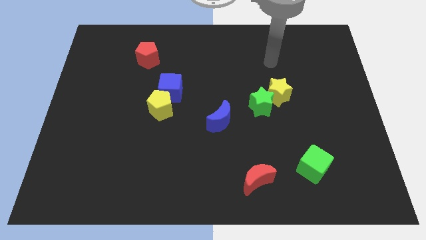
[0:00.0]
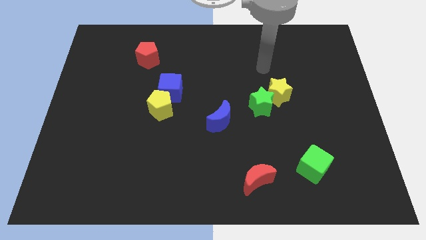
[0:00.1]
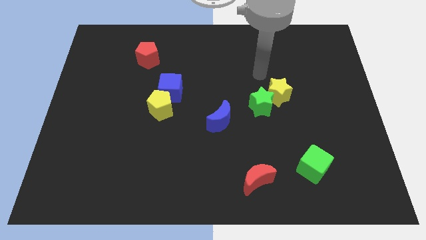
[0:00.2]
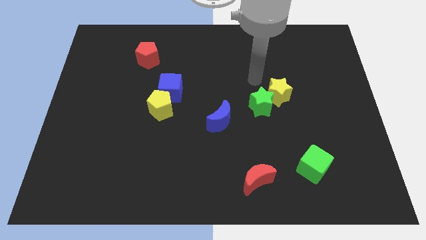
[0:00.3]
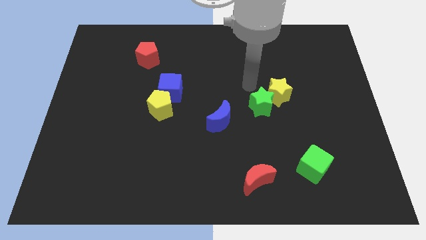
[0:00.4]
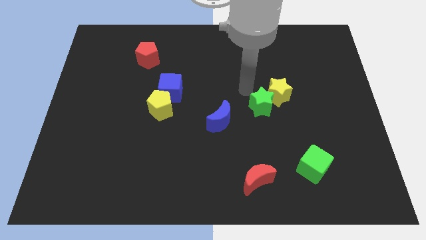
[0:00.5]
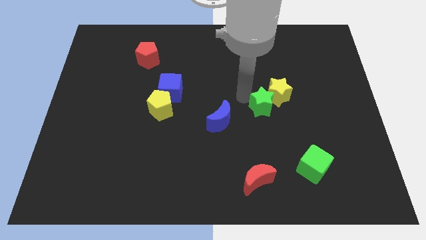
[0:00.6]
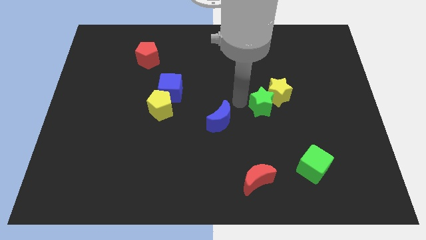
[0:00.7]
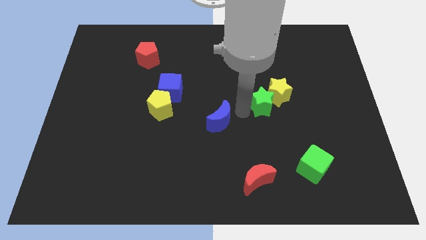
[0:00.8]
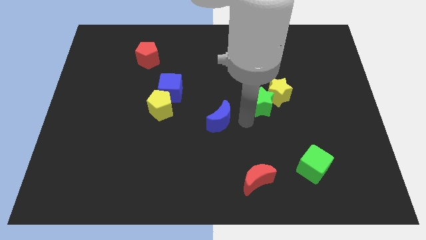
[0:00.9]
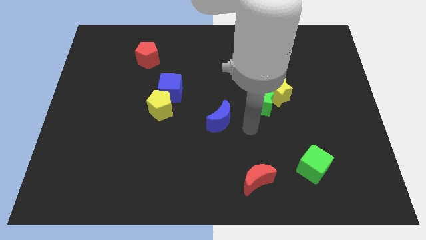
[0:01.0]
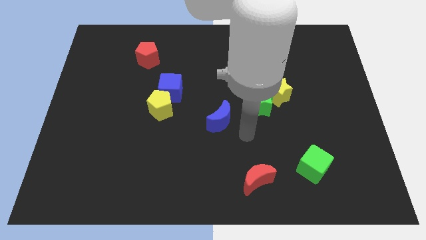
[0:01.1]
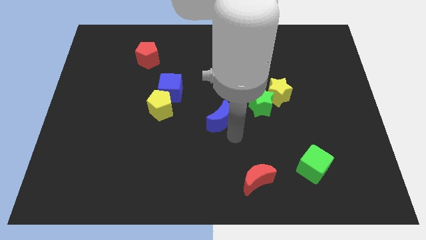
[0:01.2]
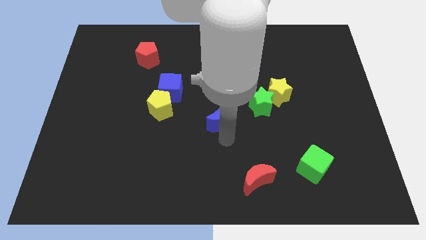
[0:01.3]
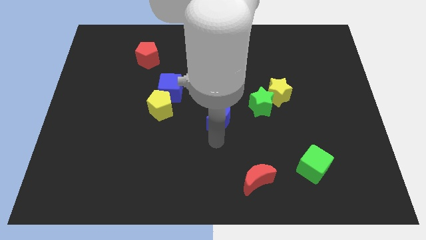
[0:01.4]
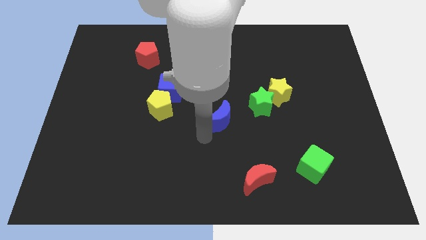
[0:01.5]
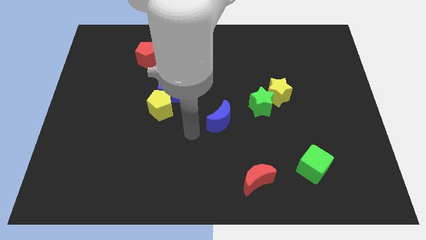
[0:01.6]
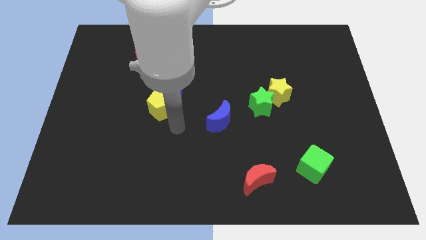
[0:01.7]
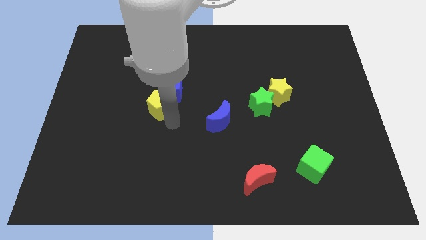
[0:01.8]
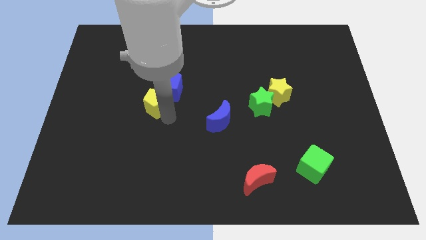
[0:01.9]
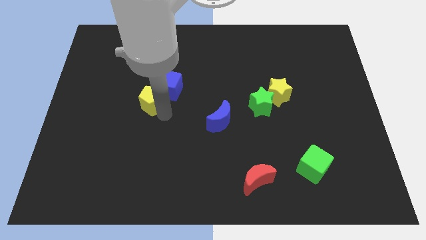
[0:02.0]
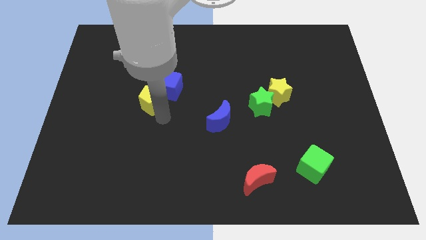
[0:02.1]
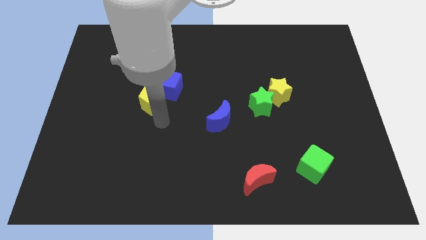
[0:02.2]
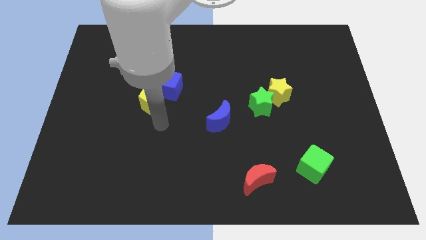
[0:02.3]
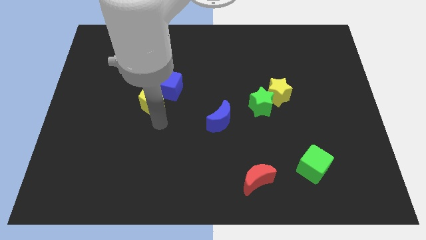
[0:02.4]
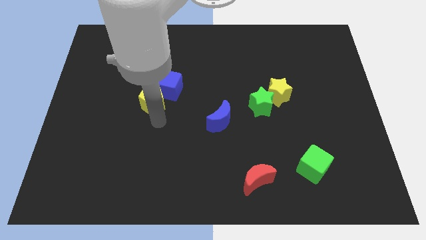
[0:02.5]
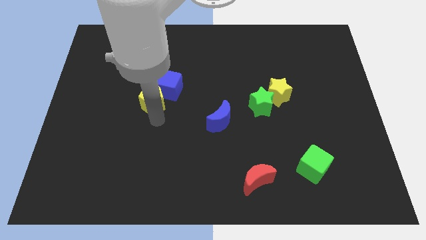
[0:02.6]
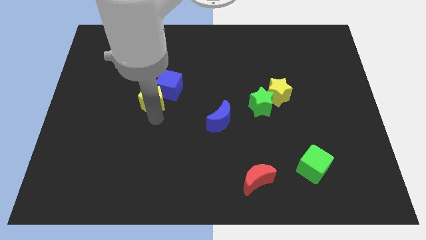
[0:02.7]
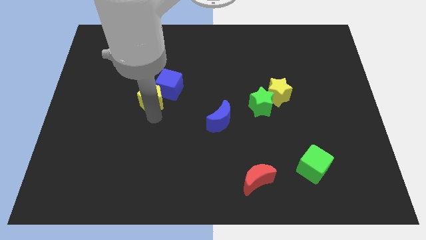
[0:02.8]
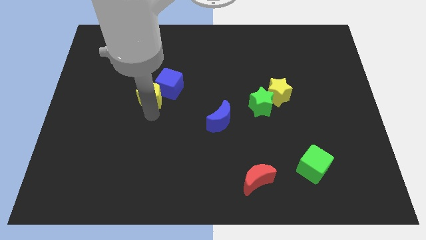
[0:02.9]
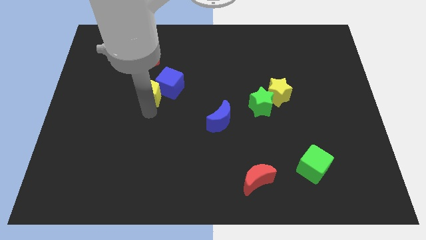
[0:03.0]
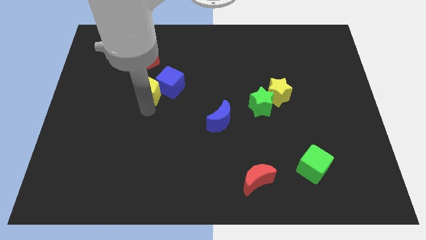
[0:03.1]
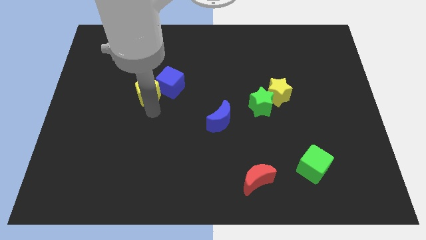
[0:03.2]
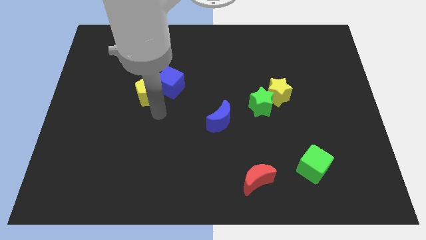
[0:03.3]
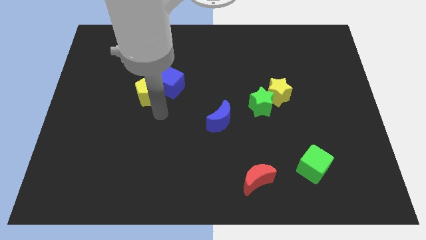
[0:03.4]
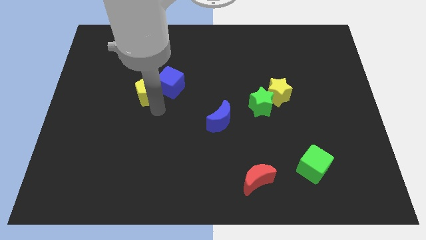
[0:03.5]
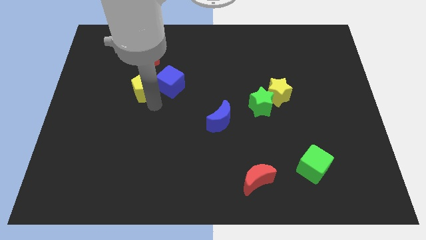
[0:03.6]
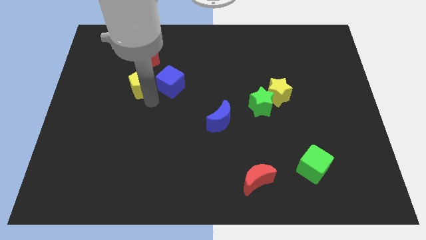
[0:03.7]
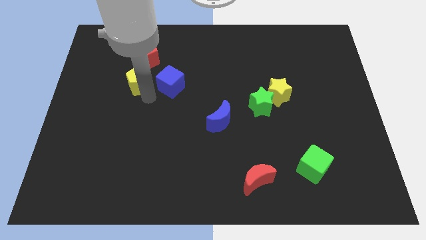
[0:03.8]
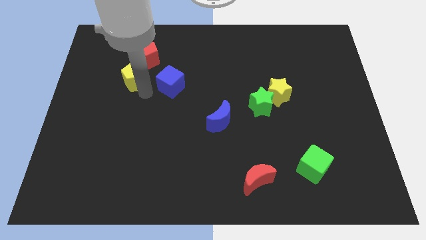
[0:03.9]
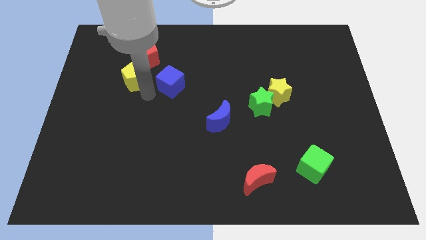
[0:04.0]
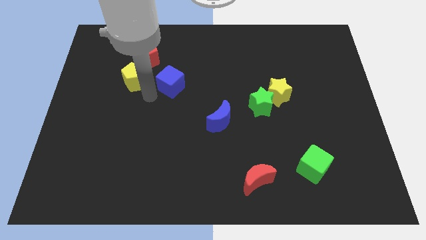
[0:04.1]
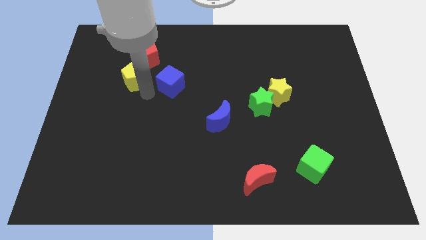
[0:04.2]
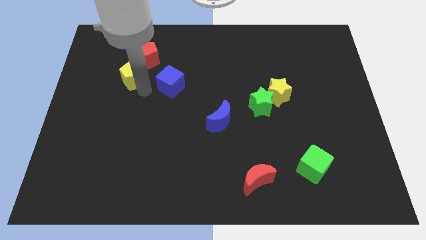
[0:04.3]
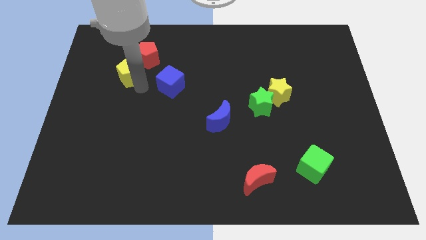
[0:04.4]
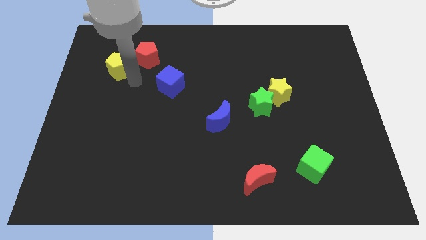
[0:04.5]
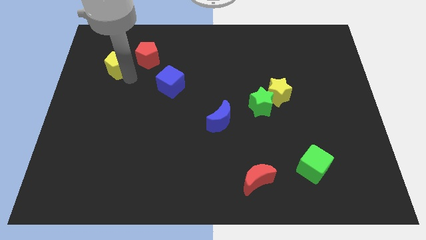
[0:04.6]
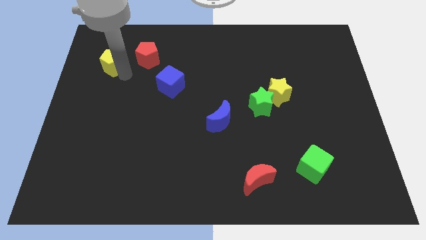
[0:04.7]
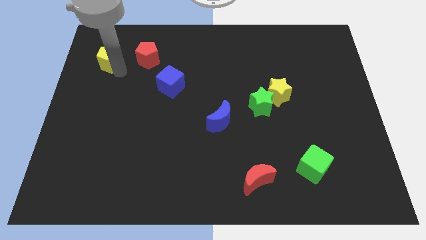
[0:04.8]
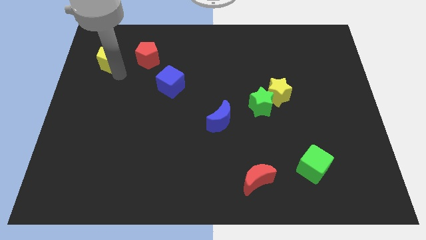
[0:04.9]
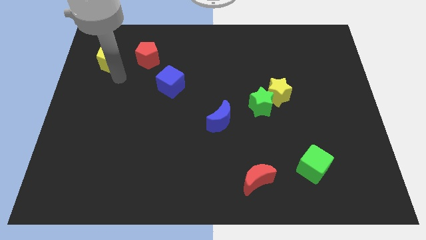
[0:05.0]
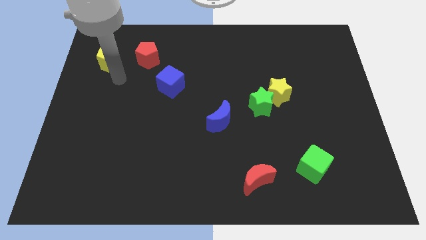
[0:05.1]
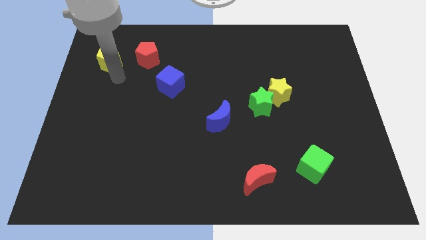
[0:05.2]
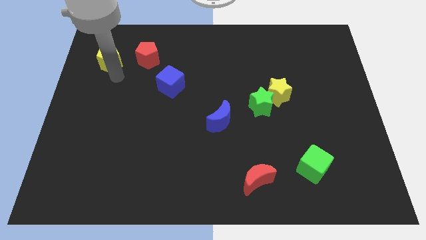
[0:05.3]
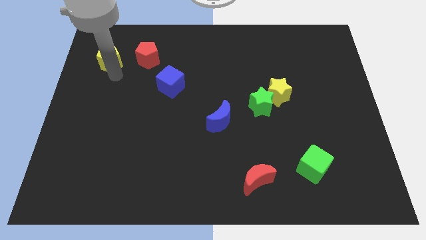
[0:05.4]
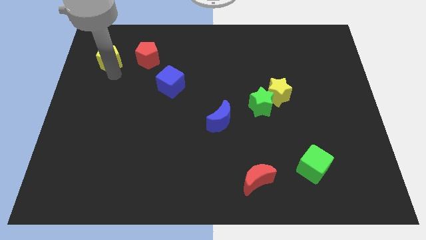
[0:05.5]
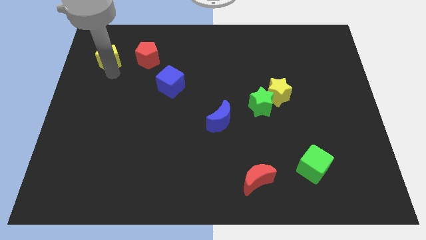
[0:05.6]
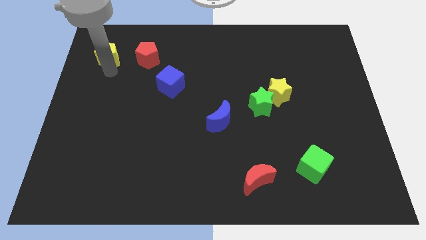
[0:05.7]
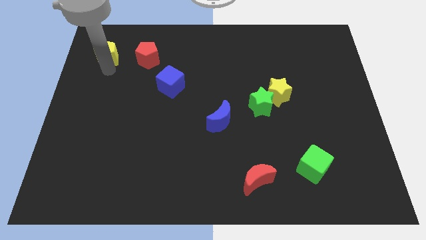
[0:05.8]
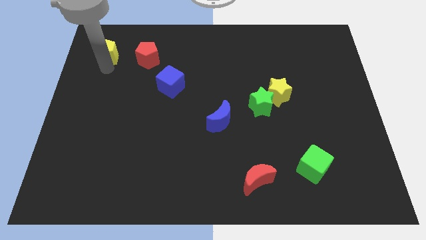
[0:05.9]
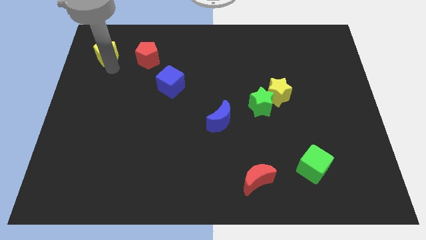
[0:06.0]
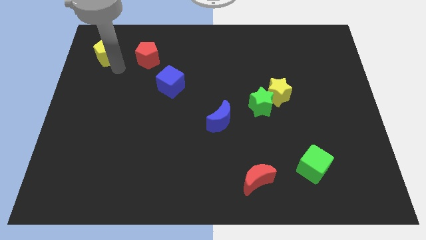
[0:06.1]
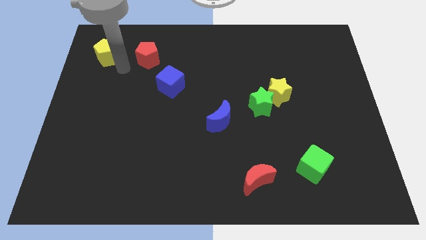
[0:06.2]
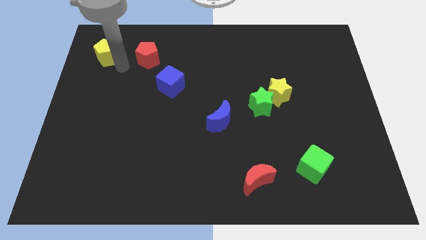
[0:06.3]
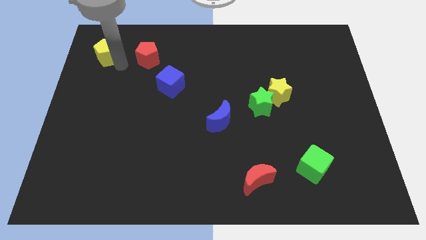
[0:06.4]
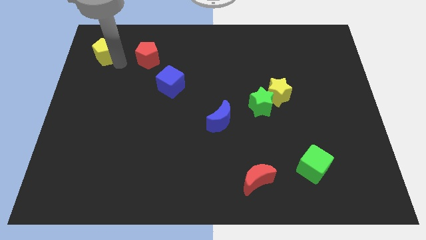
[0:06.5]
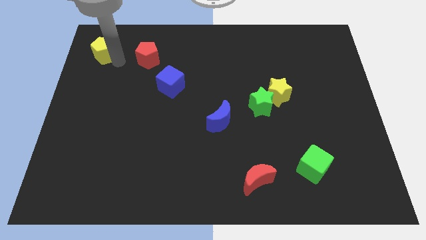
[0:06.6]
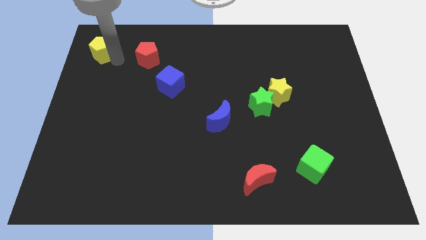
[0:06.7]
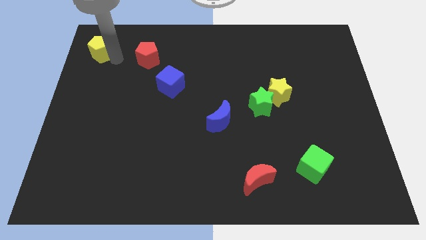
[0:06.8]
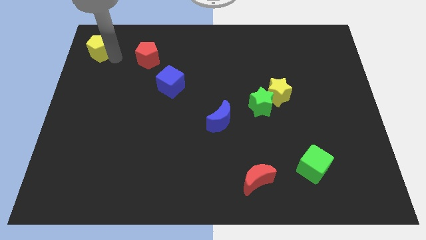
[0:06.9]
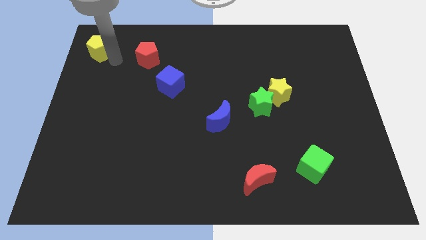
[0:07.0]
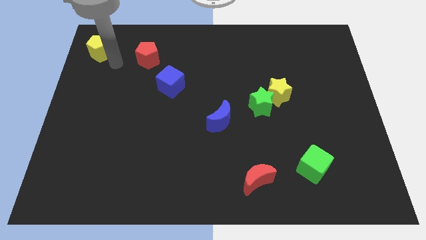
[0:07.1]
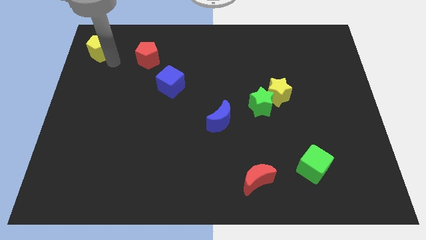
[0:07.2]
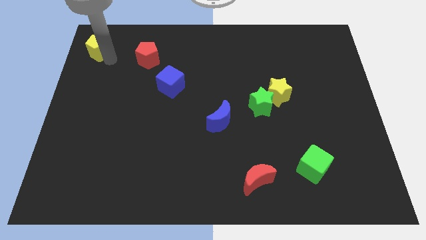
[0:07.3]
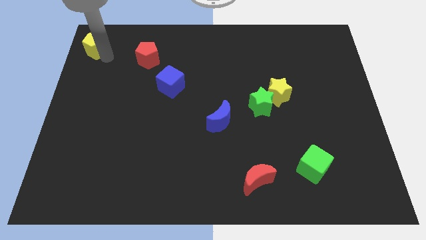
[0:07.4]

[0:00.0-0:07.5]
move the yellow pentagon to the top left of the board
